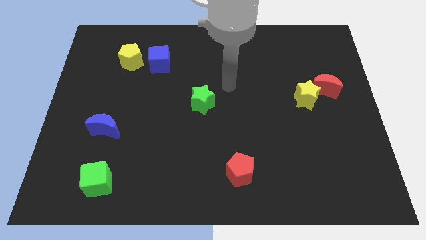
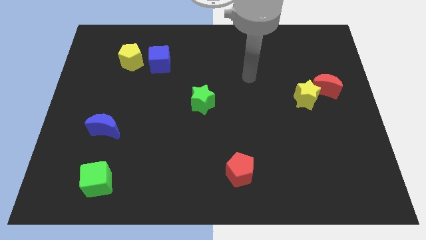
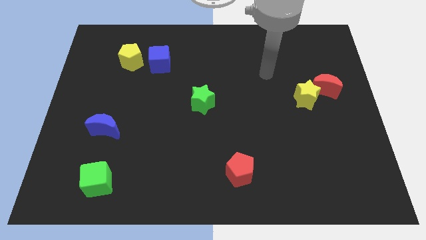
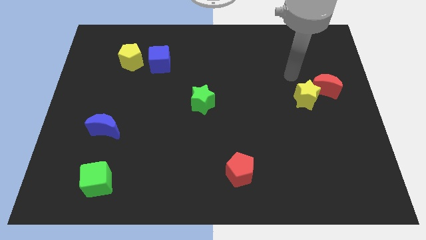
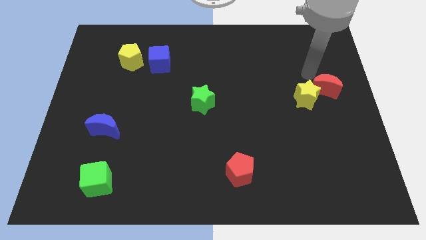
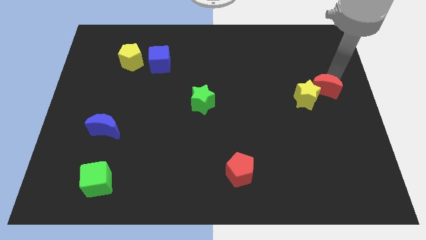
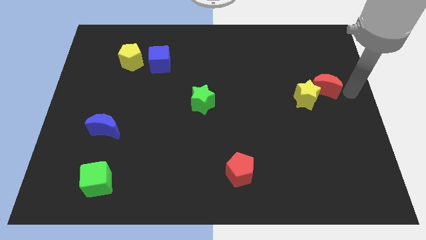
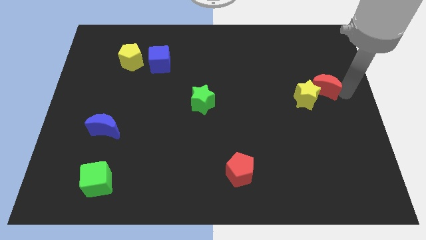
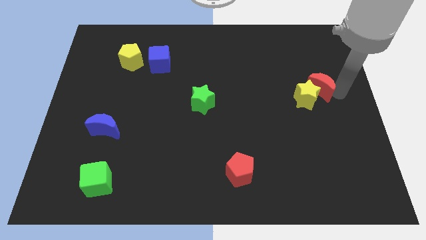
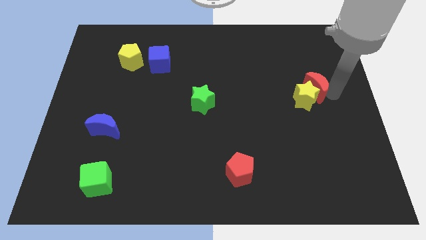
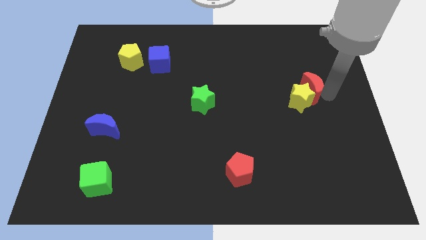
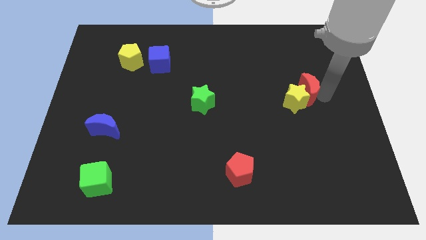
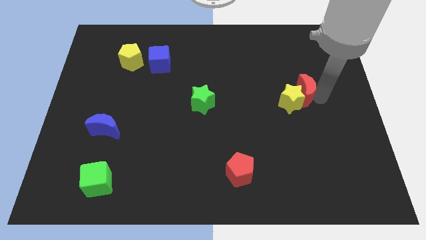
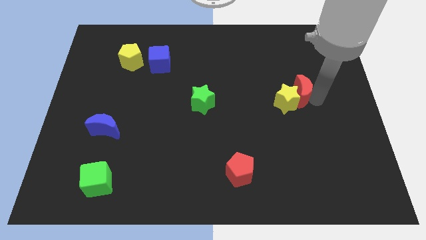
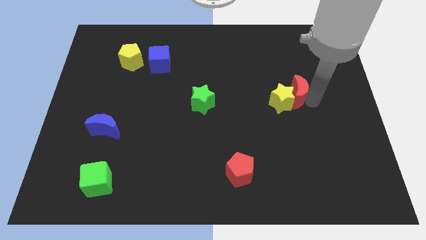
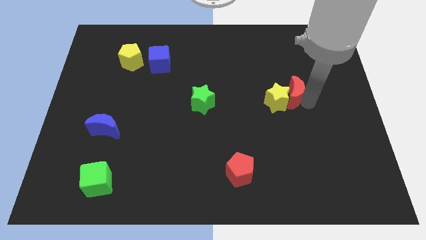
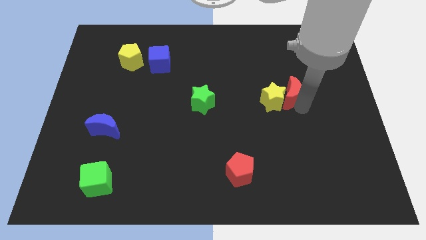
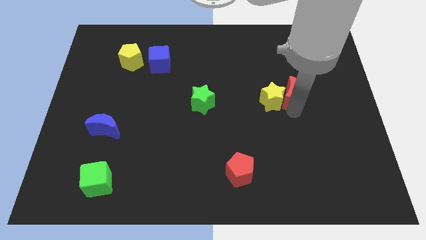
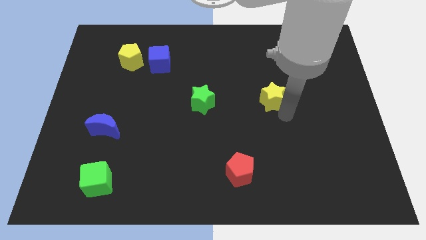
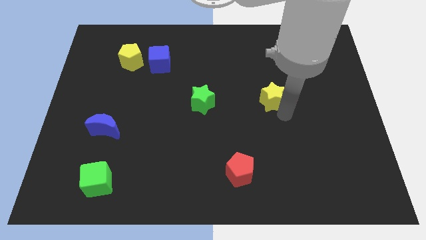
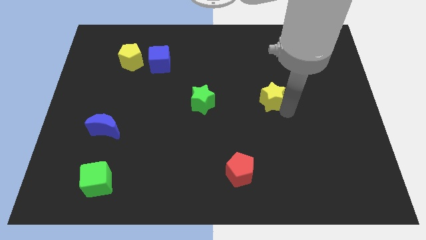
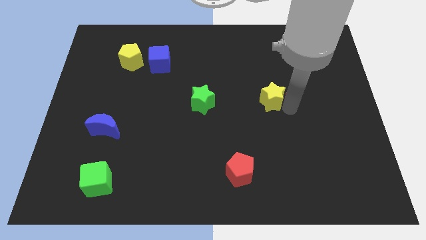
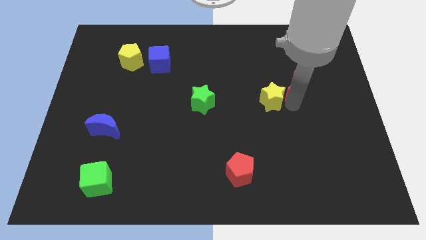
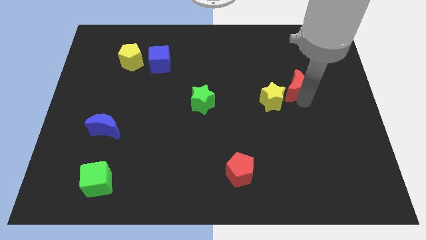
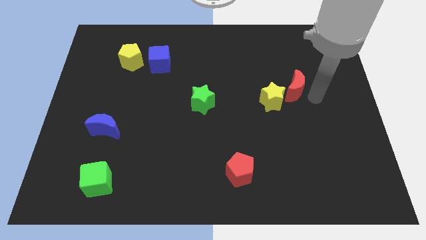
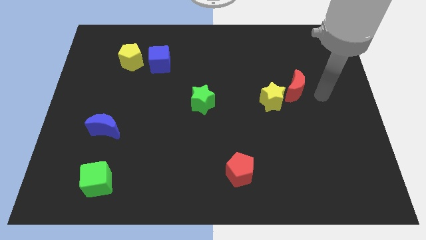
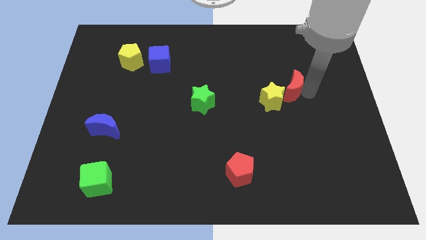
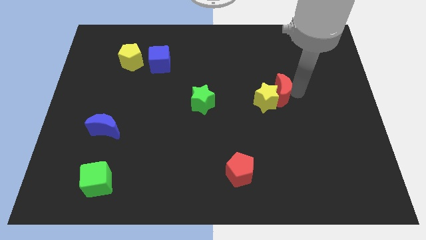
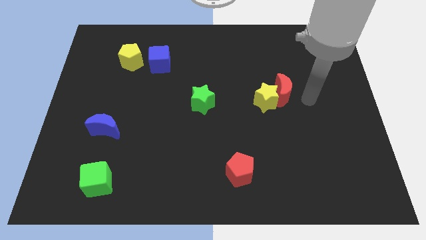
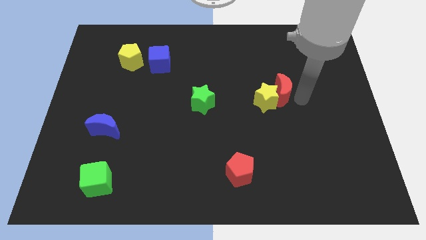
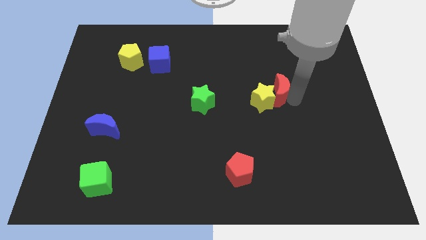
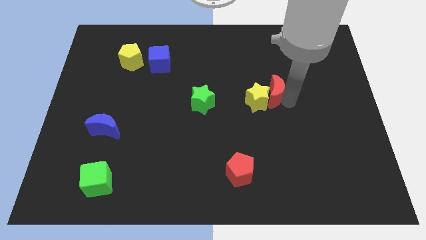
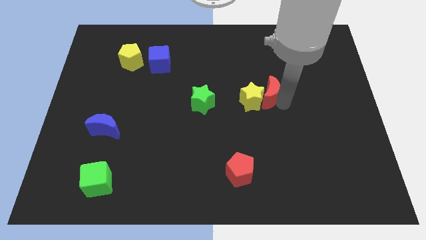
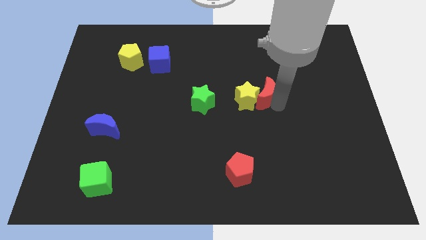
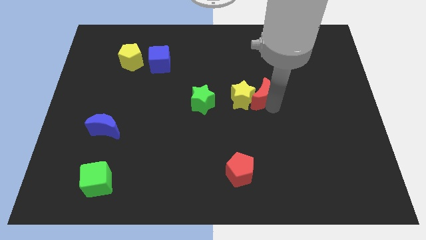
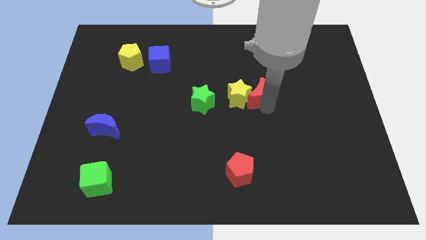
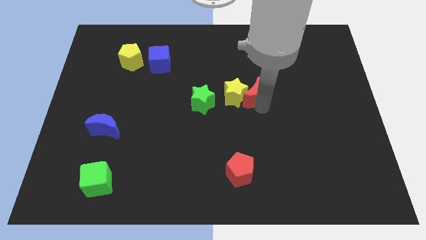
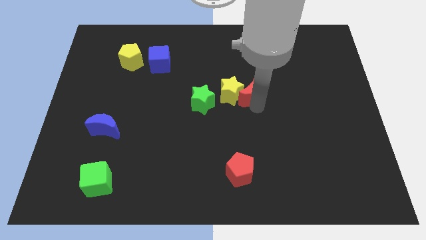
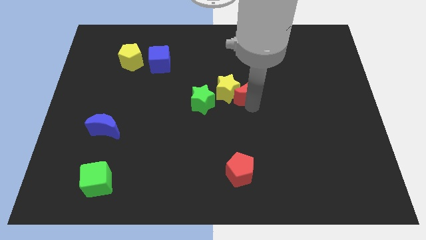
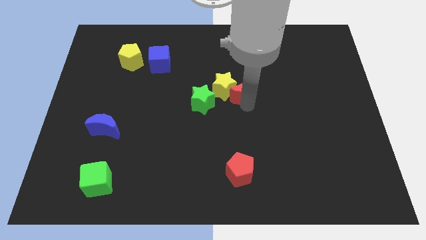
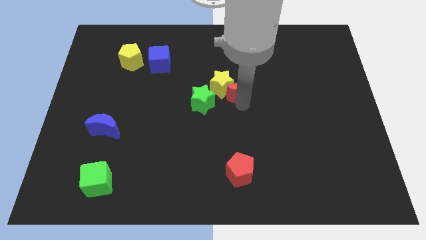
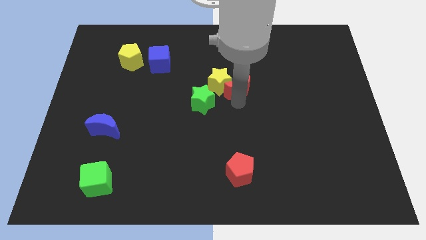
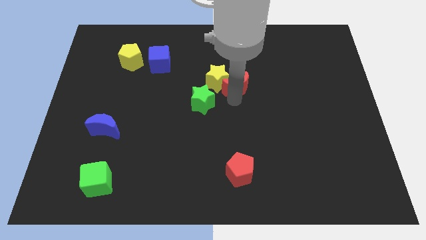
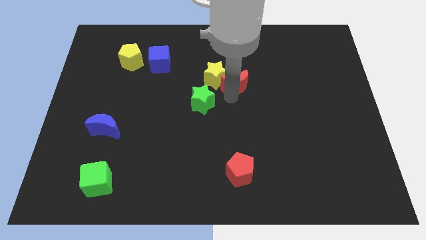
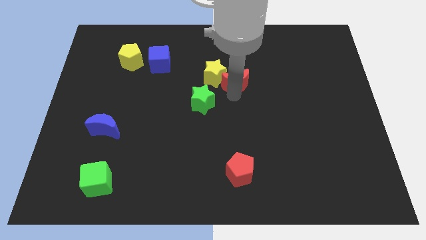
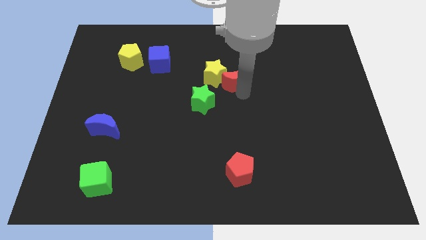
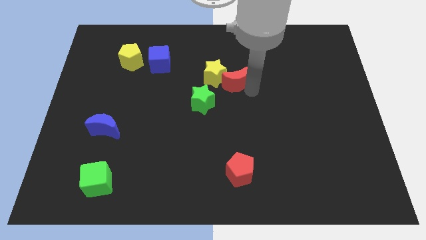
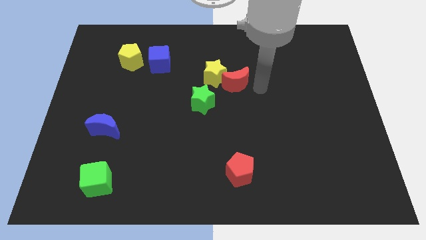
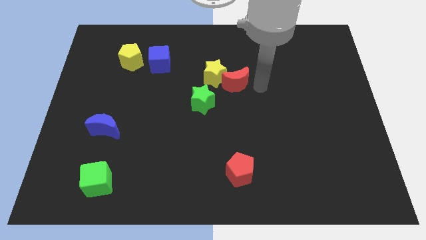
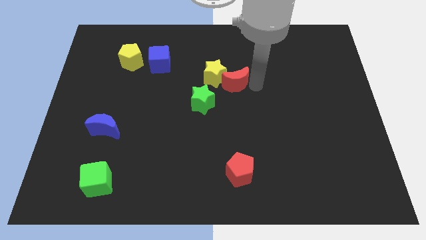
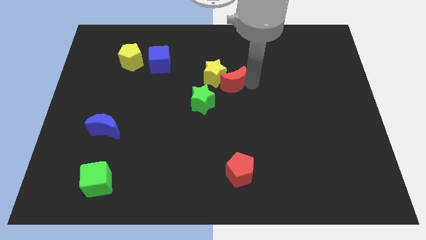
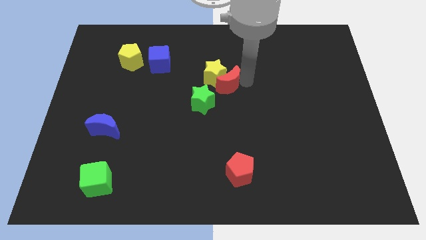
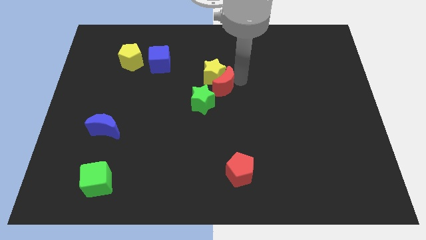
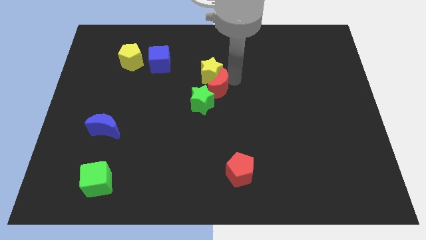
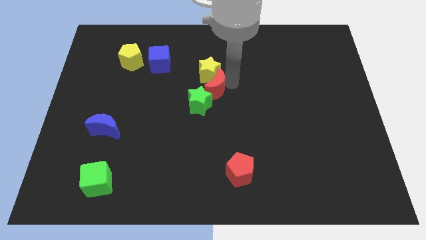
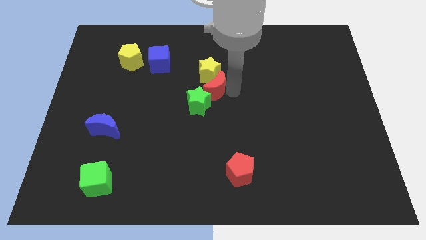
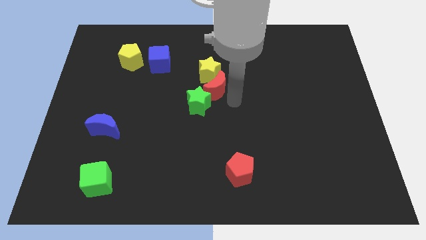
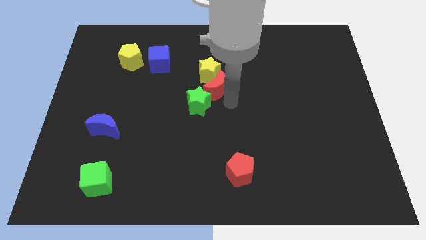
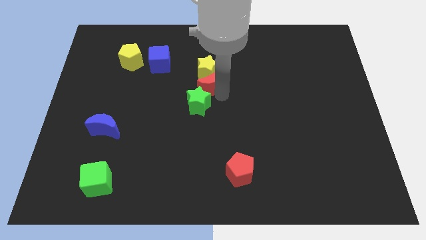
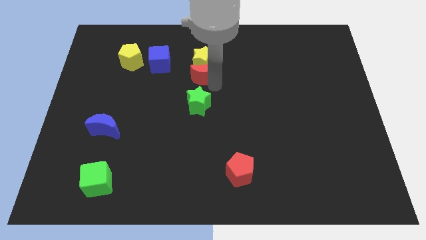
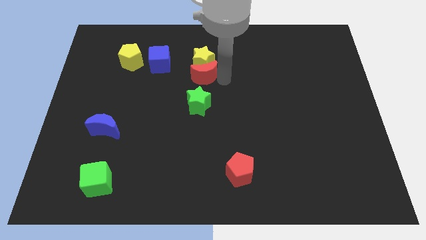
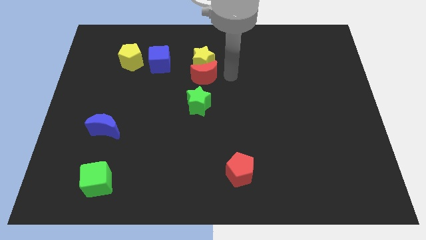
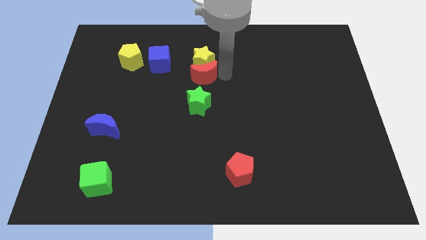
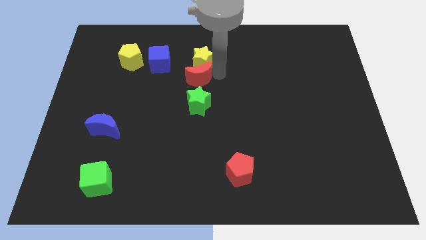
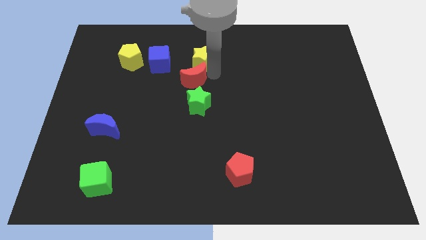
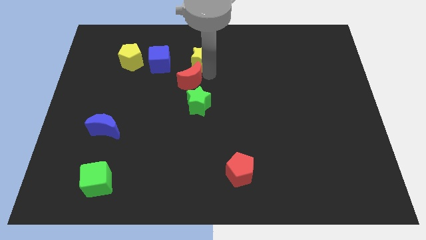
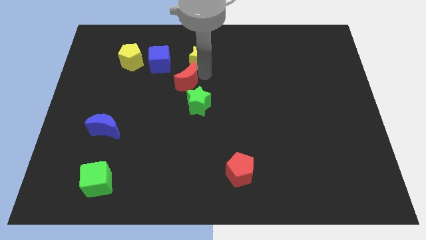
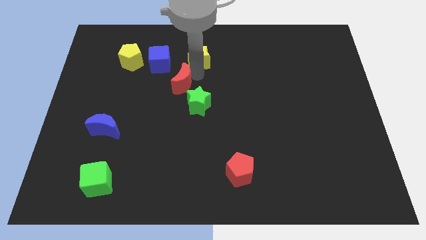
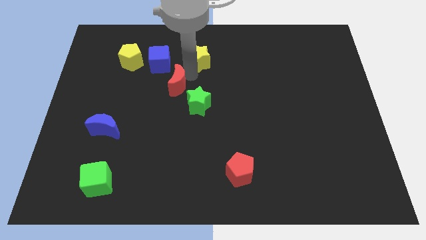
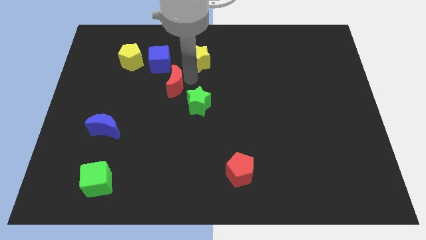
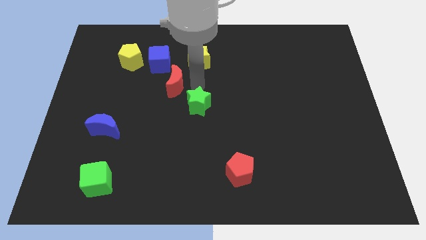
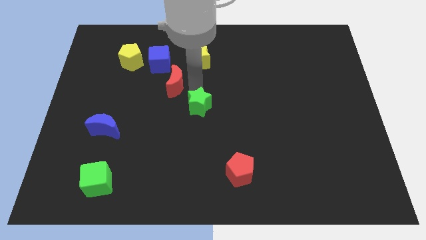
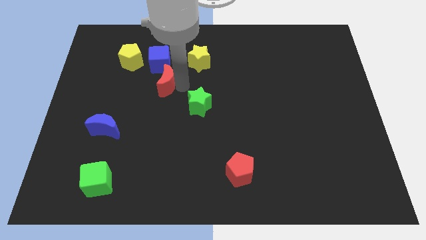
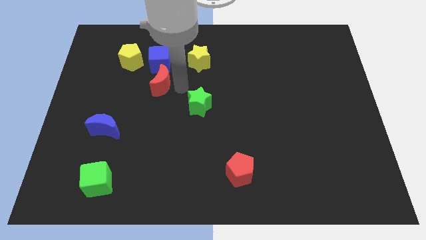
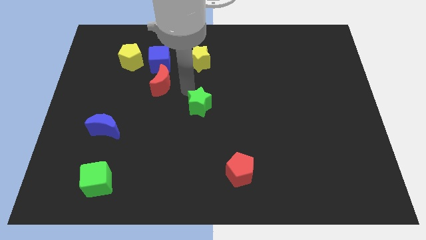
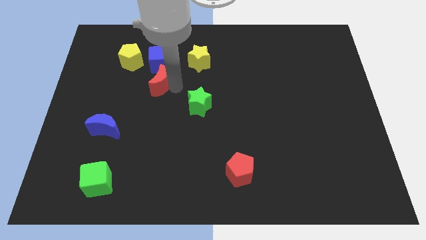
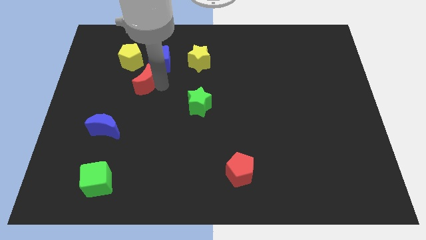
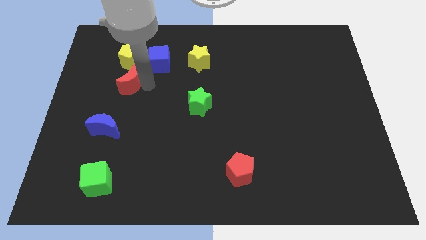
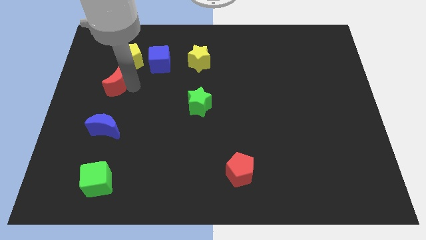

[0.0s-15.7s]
put the red moon to the bottom left of the yellow pentagon
